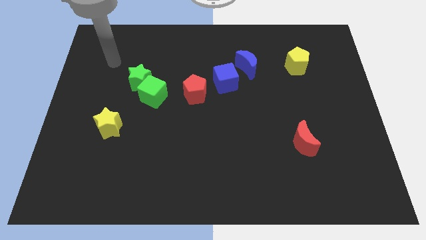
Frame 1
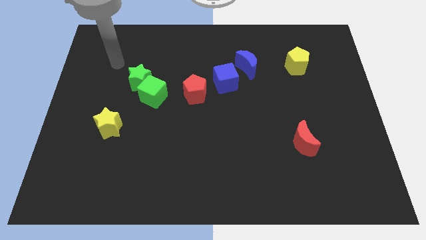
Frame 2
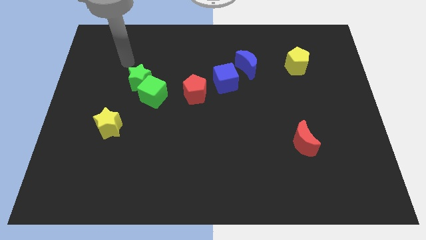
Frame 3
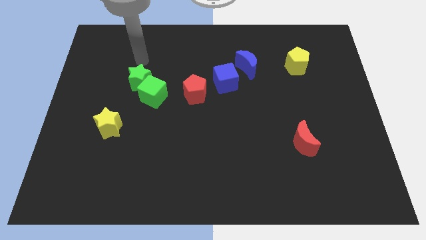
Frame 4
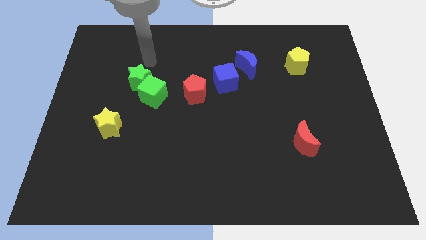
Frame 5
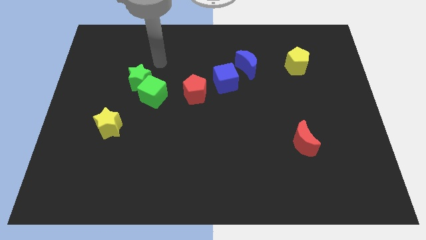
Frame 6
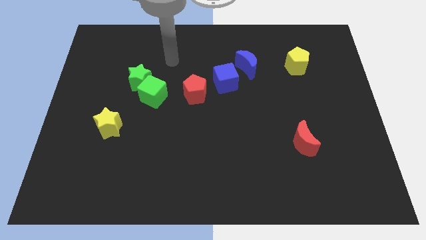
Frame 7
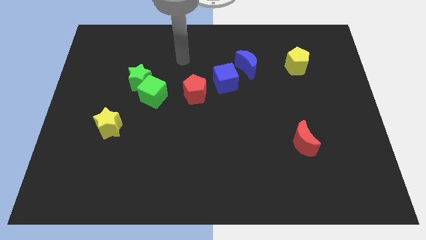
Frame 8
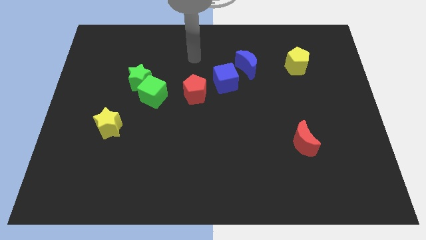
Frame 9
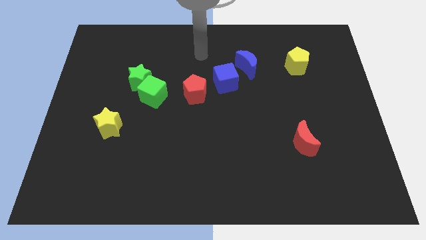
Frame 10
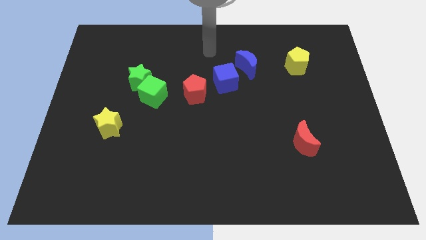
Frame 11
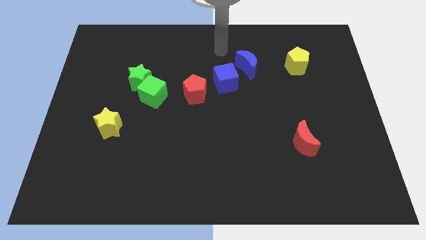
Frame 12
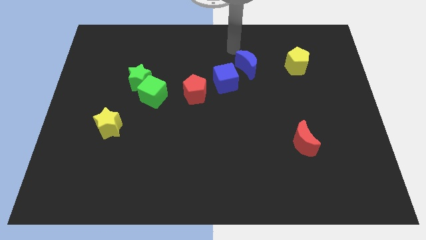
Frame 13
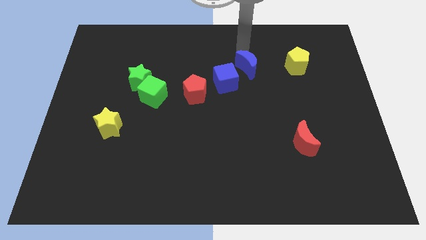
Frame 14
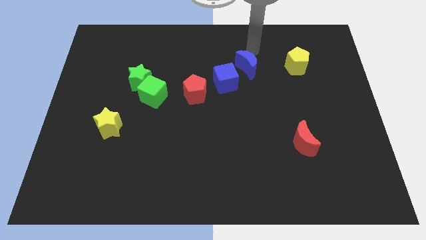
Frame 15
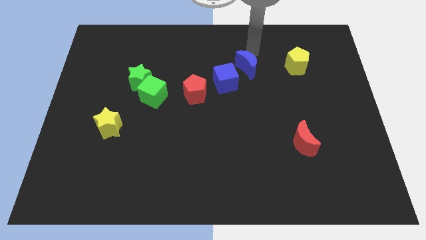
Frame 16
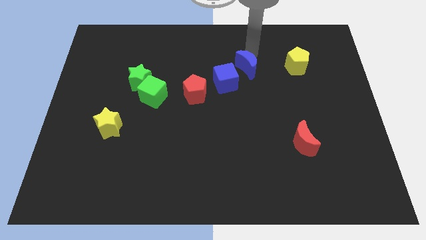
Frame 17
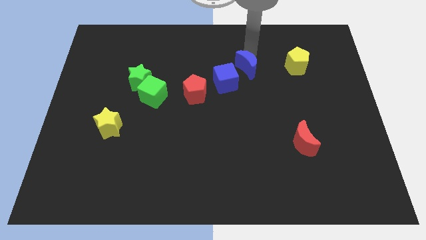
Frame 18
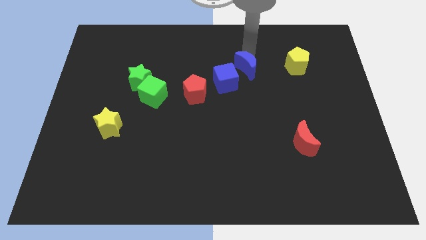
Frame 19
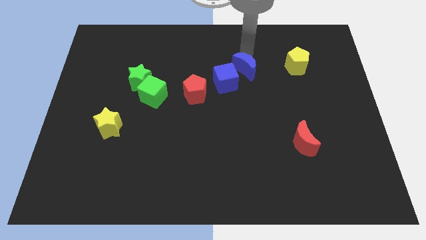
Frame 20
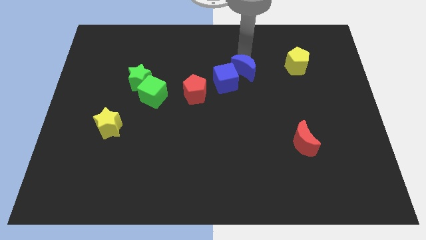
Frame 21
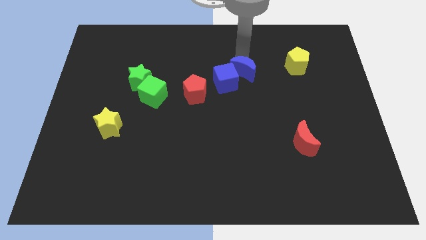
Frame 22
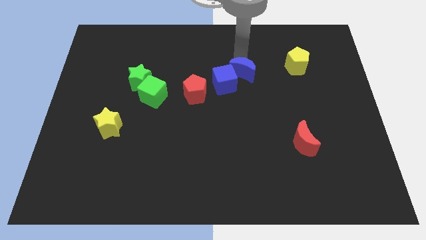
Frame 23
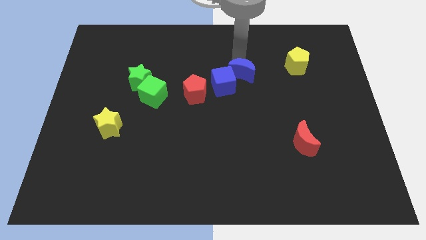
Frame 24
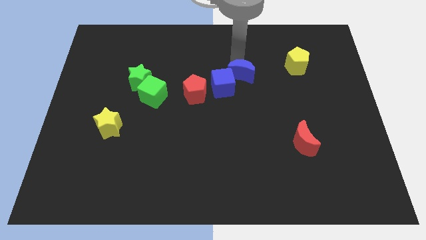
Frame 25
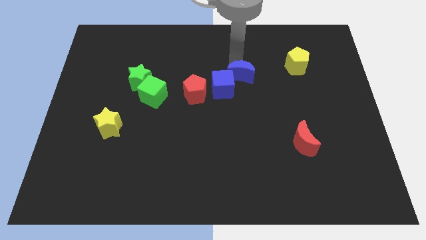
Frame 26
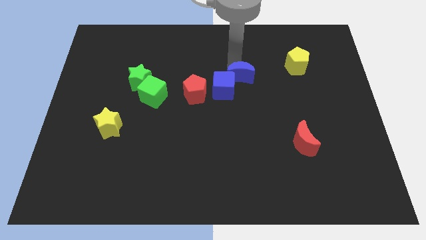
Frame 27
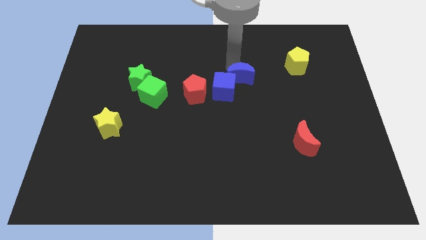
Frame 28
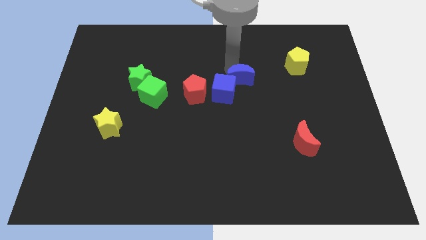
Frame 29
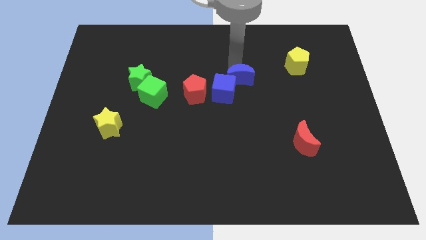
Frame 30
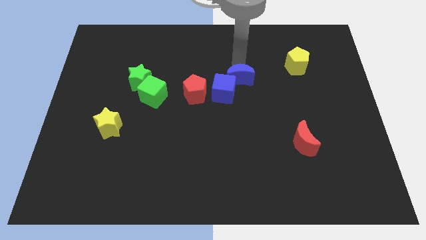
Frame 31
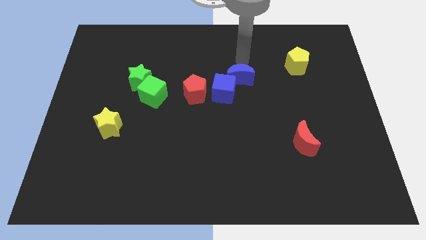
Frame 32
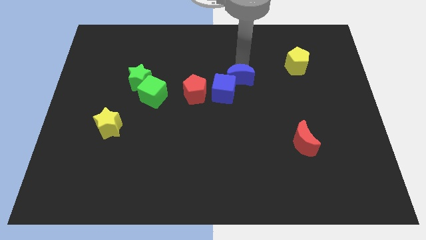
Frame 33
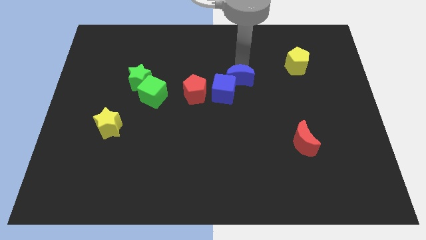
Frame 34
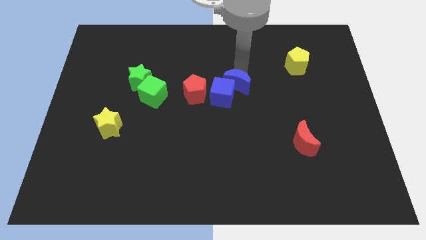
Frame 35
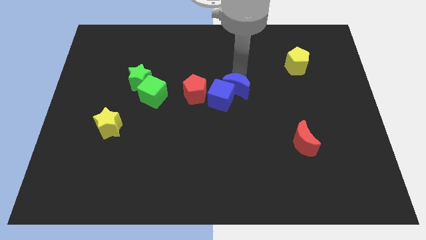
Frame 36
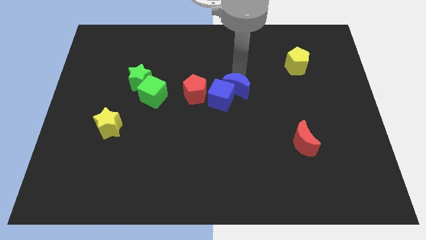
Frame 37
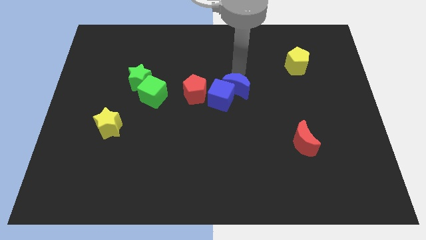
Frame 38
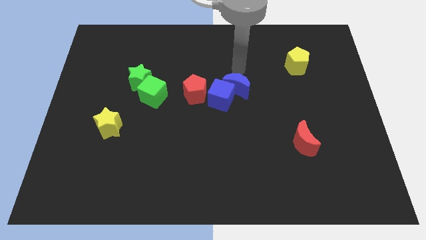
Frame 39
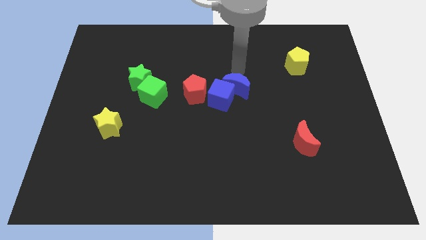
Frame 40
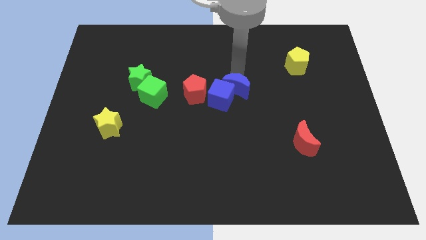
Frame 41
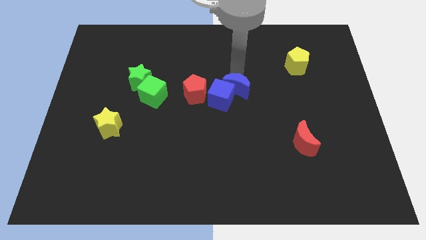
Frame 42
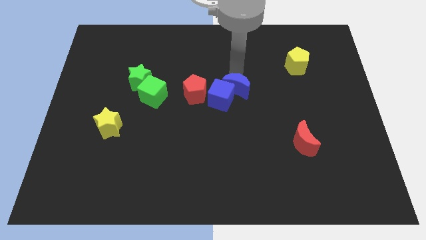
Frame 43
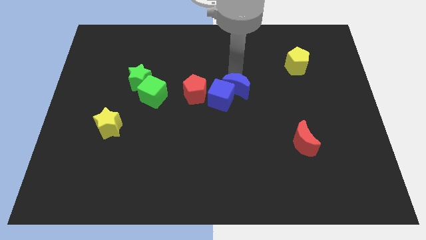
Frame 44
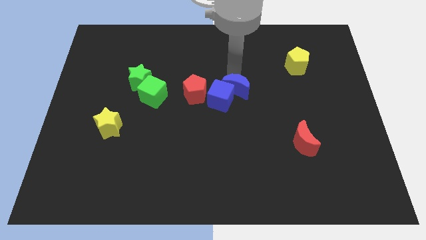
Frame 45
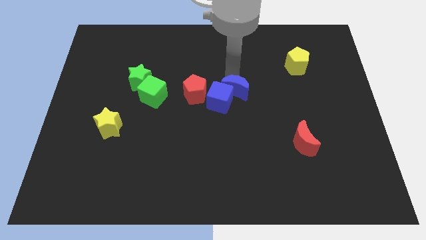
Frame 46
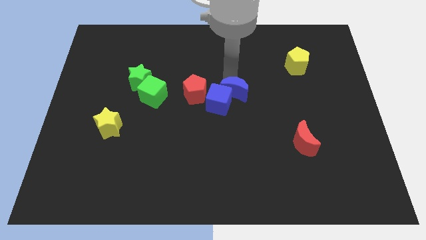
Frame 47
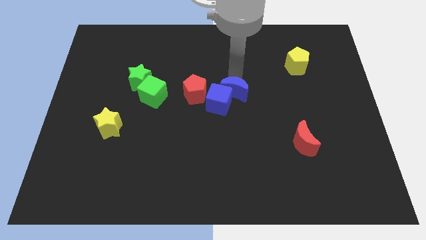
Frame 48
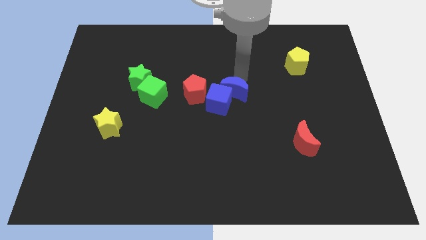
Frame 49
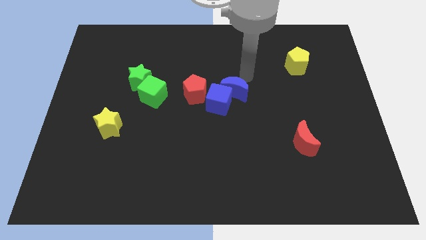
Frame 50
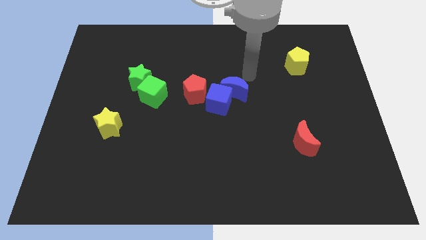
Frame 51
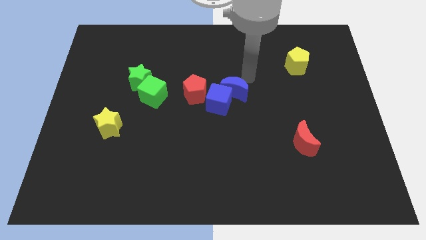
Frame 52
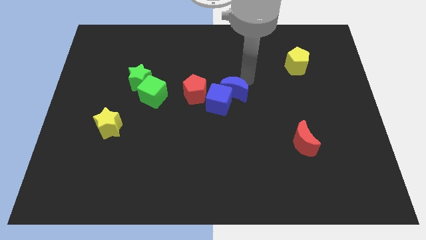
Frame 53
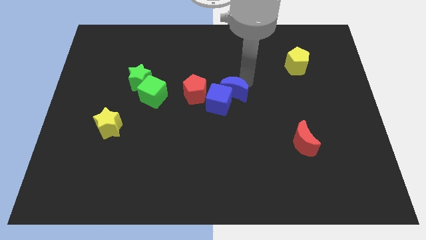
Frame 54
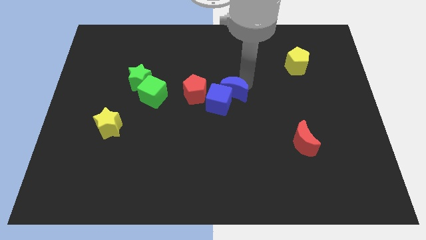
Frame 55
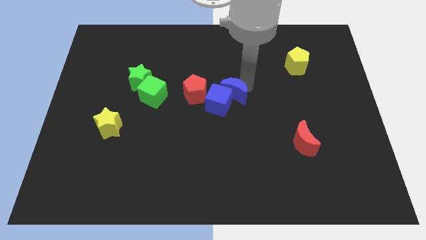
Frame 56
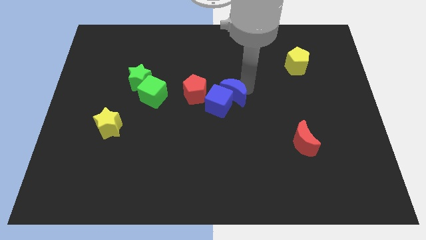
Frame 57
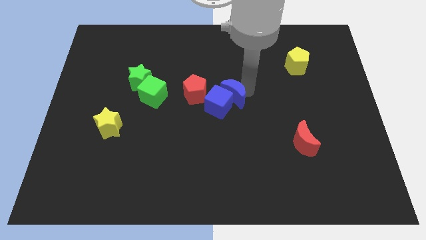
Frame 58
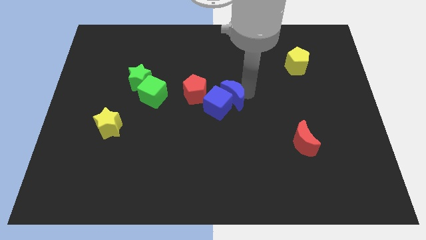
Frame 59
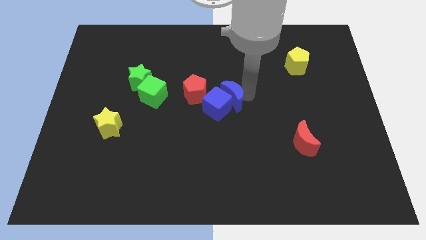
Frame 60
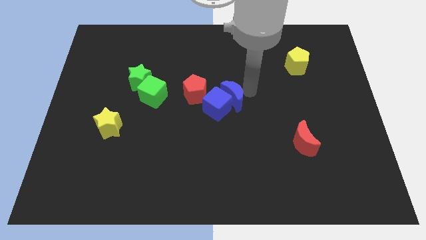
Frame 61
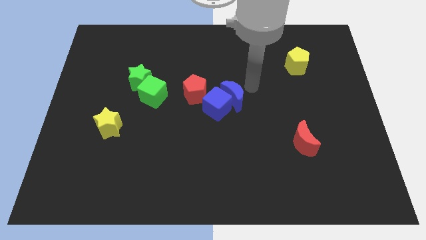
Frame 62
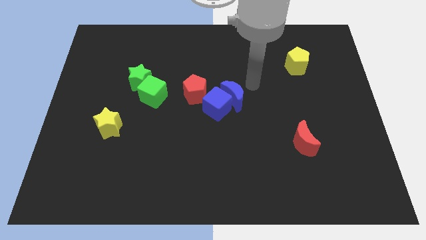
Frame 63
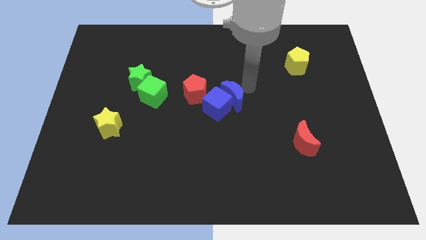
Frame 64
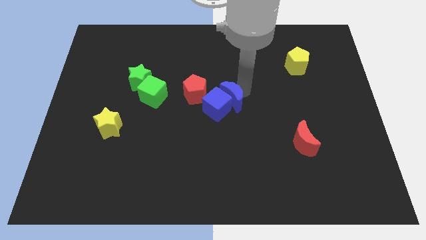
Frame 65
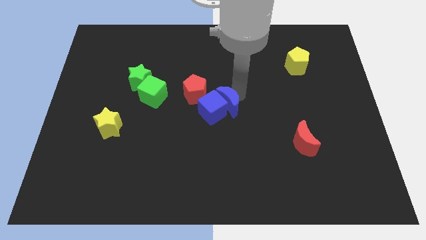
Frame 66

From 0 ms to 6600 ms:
push the blue moon diagonally down and to the right of the red pentagon
